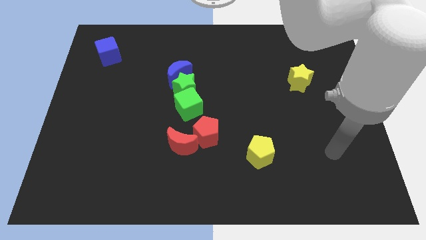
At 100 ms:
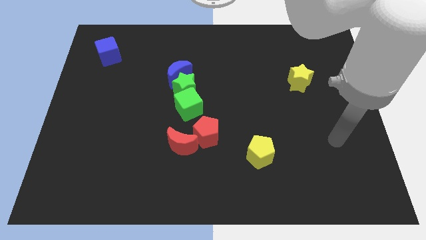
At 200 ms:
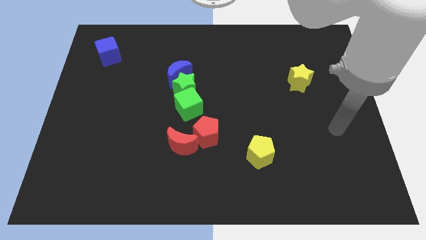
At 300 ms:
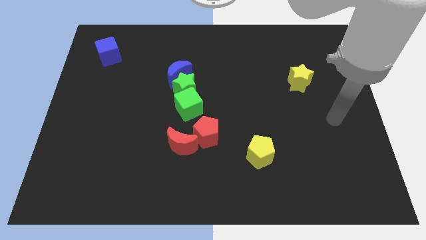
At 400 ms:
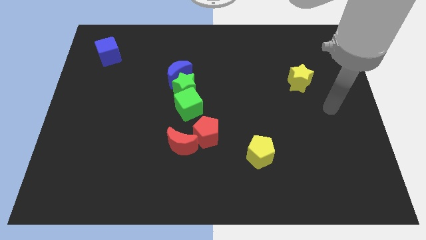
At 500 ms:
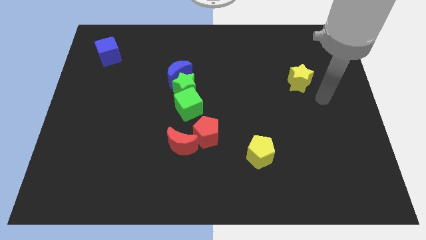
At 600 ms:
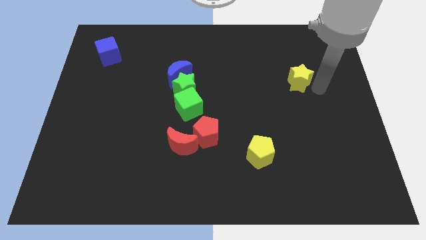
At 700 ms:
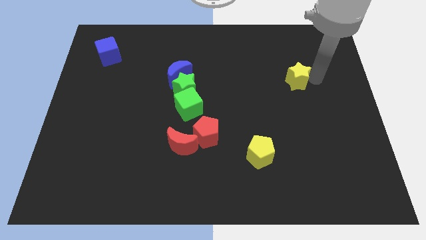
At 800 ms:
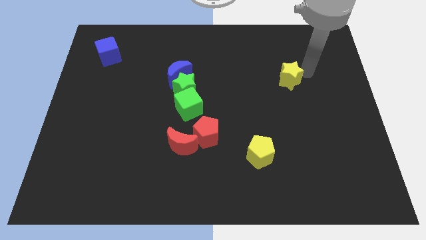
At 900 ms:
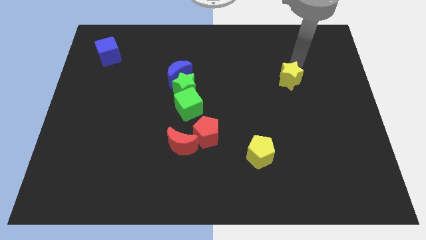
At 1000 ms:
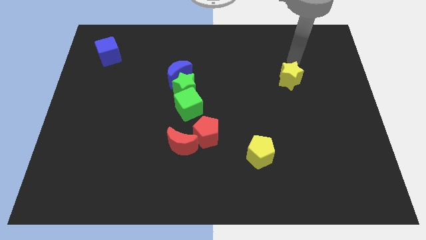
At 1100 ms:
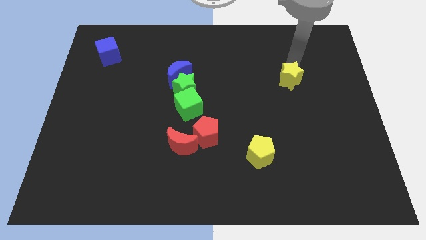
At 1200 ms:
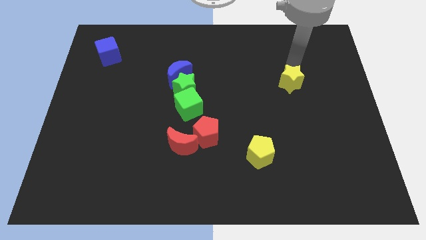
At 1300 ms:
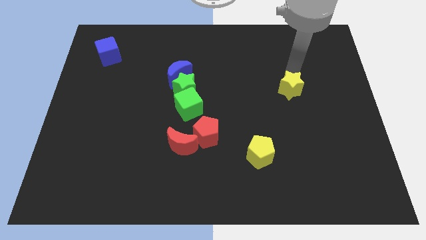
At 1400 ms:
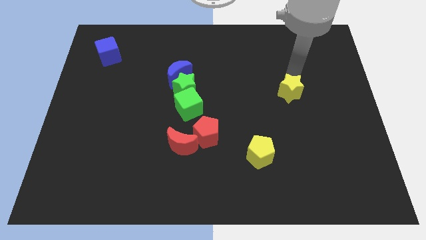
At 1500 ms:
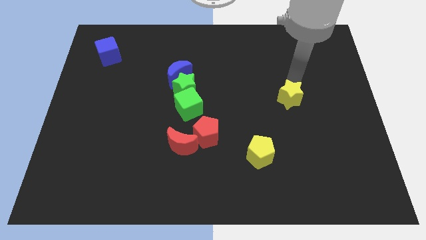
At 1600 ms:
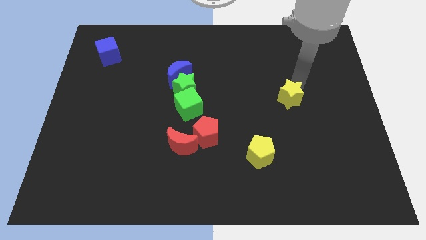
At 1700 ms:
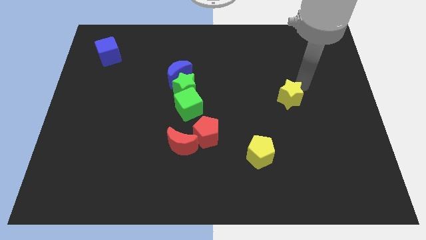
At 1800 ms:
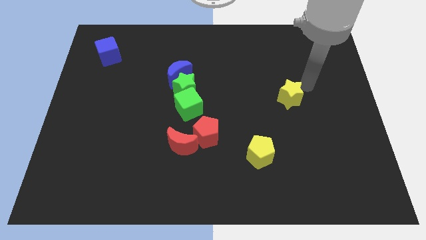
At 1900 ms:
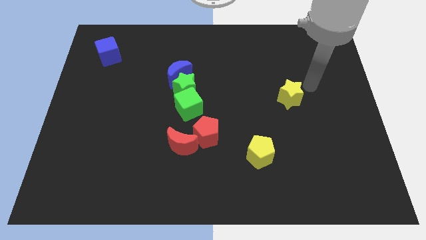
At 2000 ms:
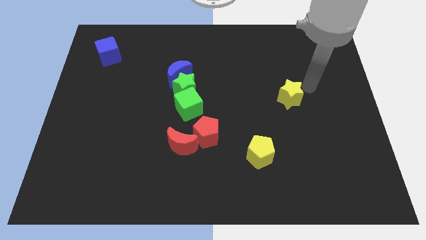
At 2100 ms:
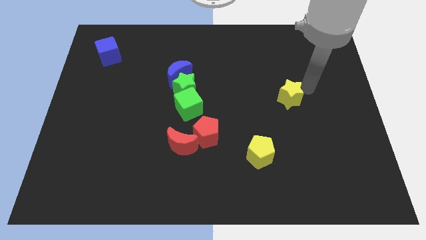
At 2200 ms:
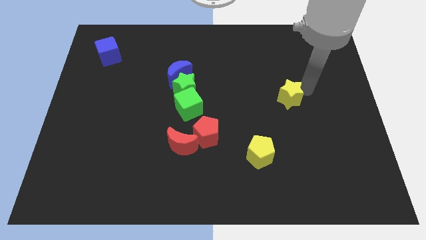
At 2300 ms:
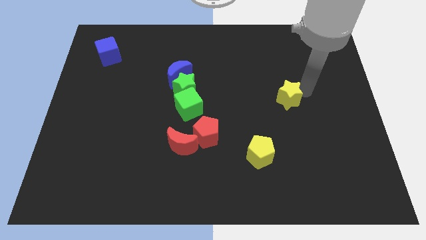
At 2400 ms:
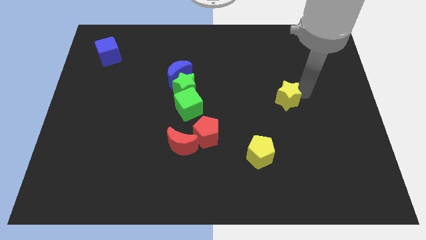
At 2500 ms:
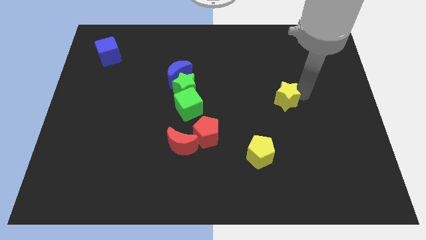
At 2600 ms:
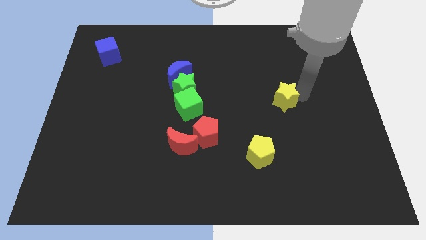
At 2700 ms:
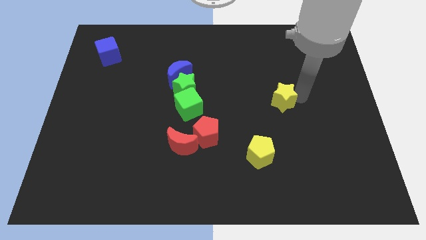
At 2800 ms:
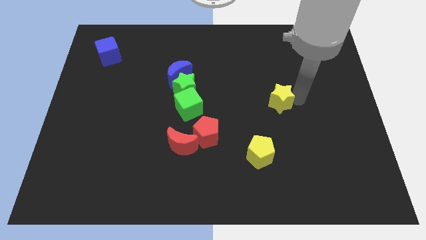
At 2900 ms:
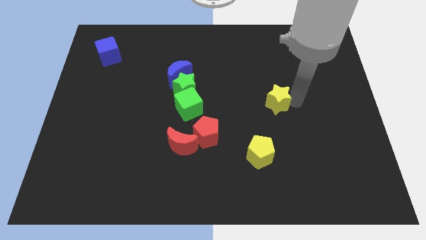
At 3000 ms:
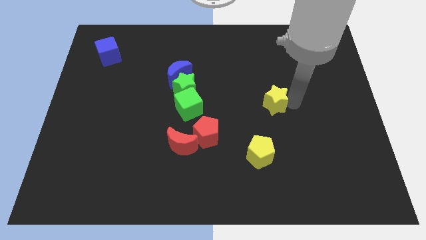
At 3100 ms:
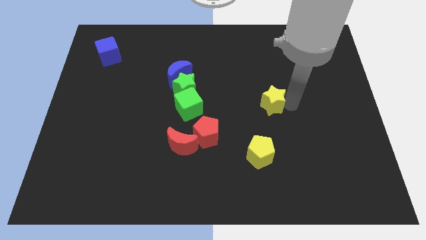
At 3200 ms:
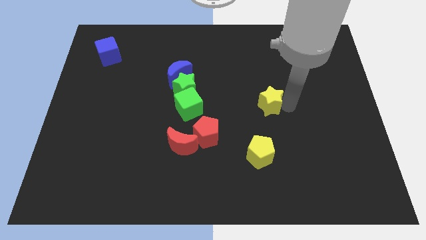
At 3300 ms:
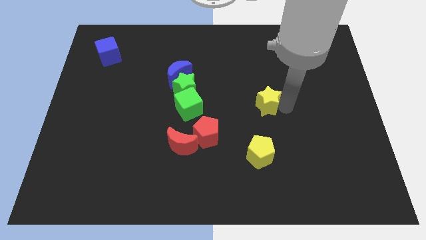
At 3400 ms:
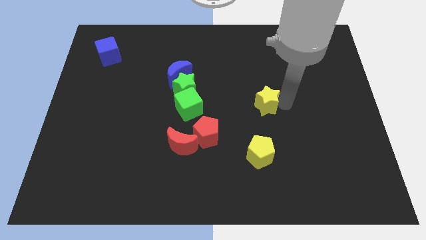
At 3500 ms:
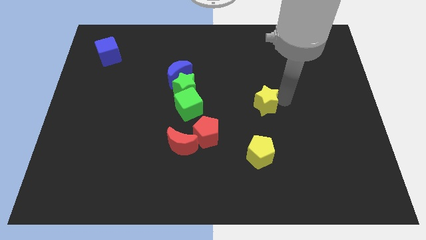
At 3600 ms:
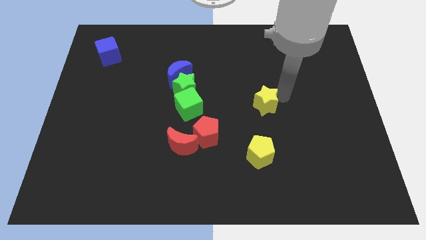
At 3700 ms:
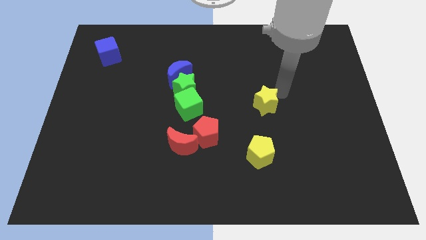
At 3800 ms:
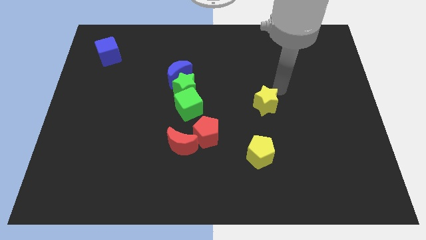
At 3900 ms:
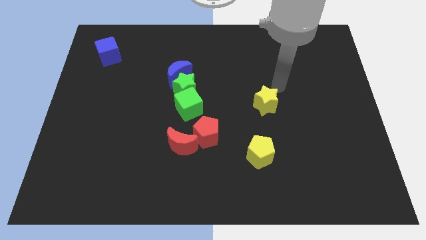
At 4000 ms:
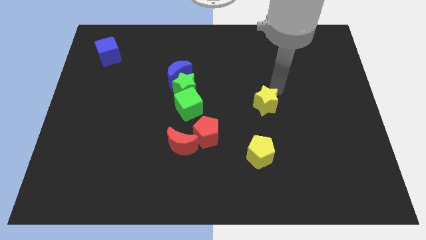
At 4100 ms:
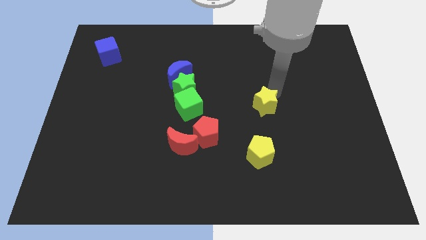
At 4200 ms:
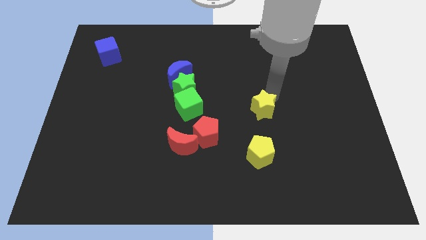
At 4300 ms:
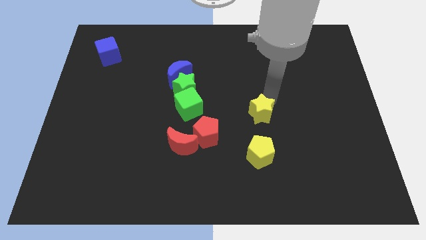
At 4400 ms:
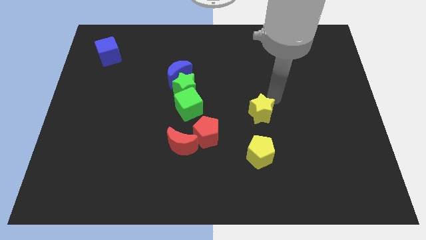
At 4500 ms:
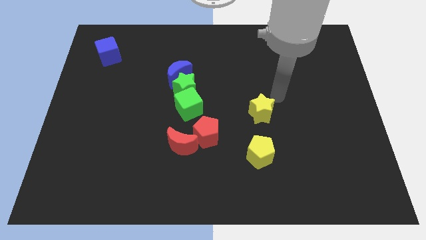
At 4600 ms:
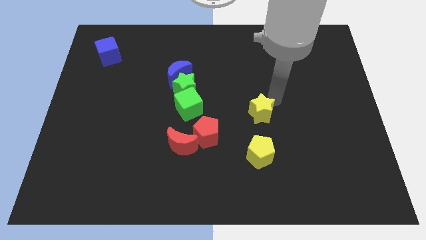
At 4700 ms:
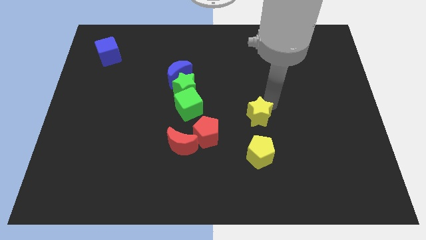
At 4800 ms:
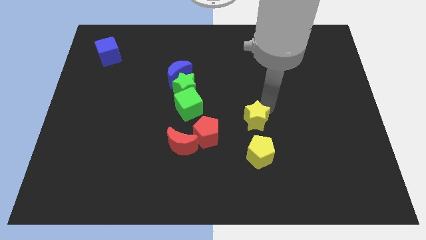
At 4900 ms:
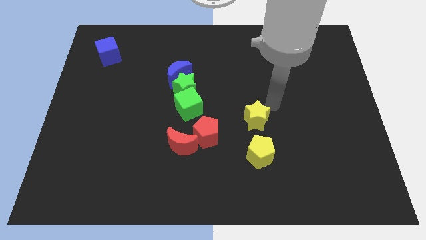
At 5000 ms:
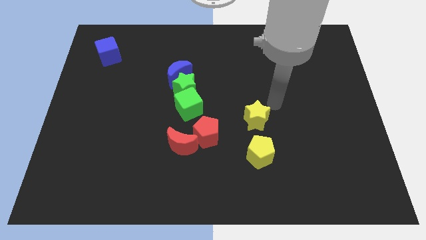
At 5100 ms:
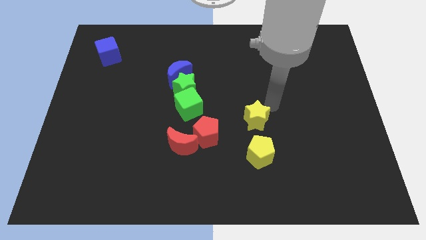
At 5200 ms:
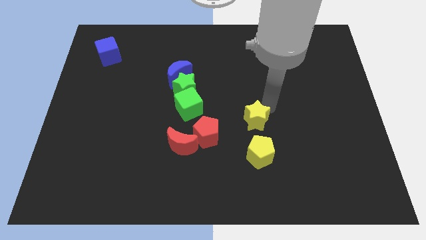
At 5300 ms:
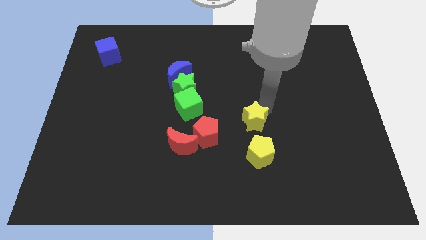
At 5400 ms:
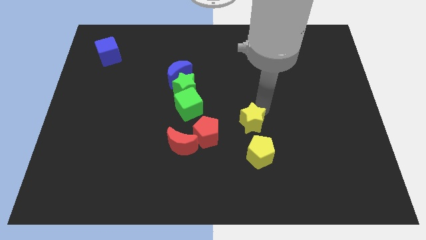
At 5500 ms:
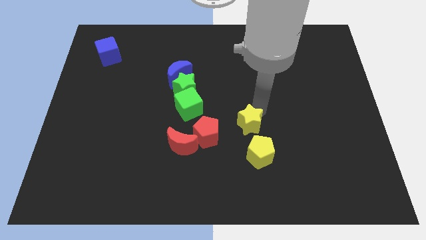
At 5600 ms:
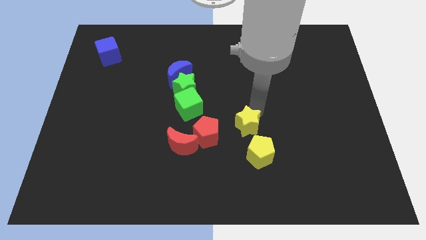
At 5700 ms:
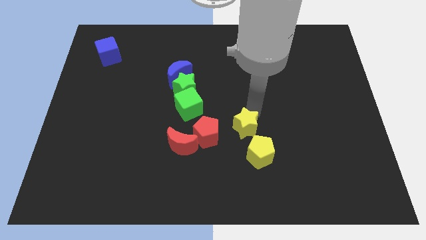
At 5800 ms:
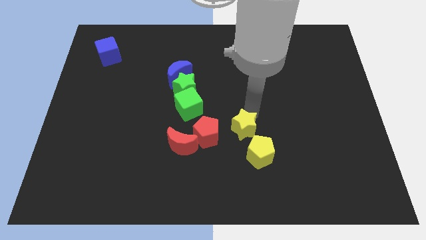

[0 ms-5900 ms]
push the yellow star diagonally downwards and left

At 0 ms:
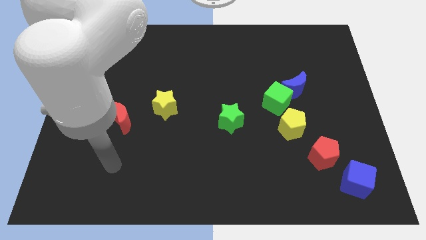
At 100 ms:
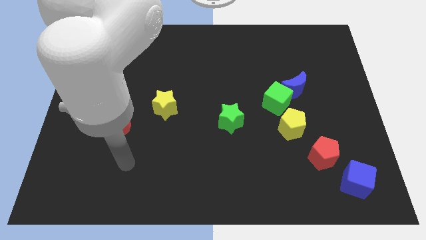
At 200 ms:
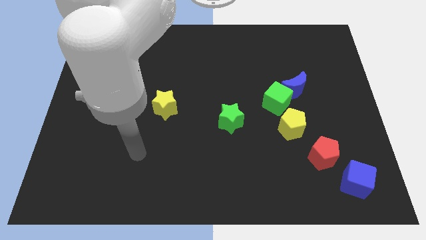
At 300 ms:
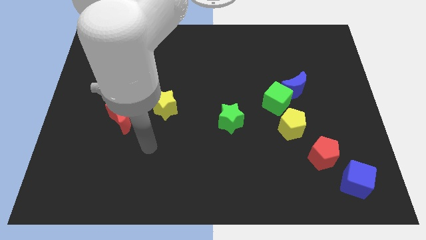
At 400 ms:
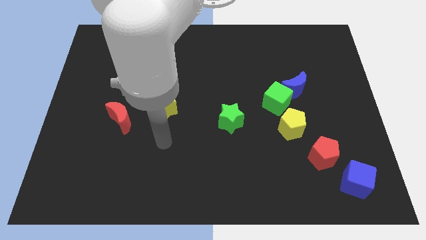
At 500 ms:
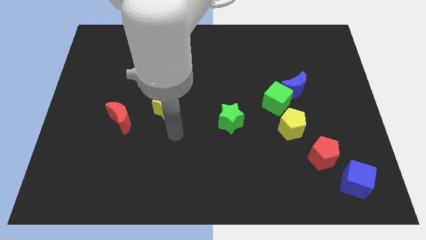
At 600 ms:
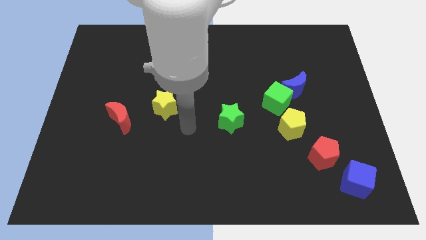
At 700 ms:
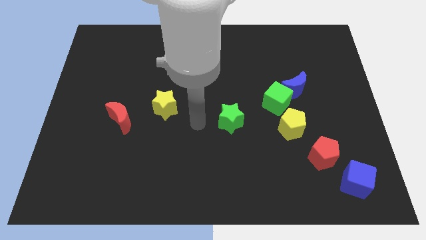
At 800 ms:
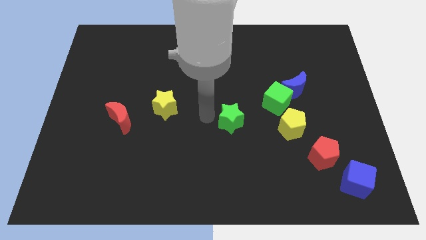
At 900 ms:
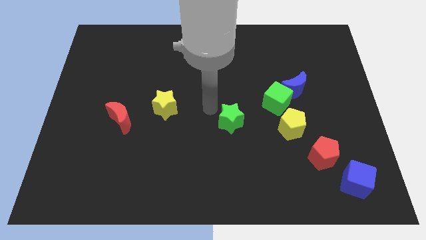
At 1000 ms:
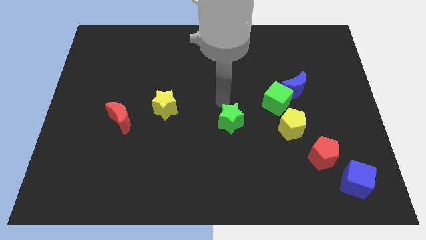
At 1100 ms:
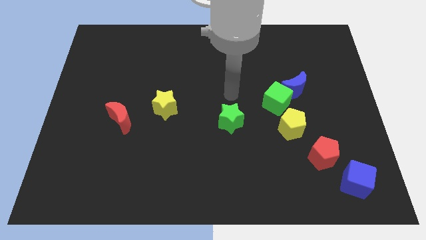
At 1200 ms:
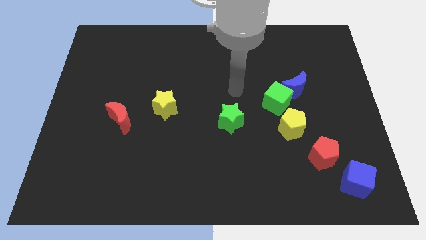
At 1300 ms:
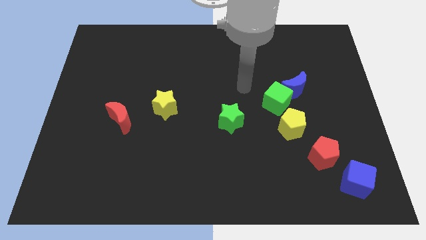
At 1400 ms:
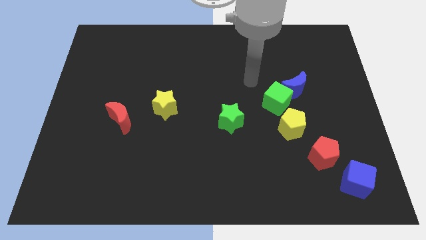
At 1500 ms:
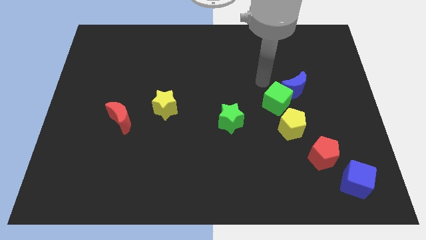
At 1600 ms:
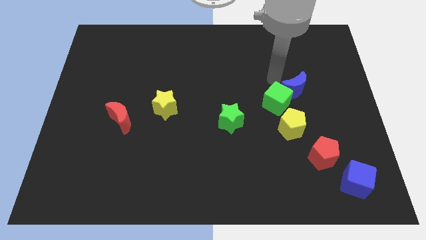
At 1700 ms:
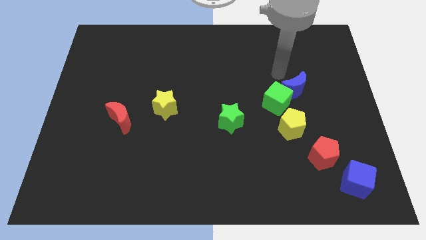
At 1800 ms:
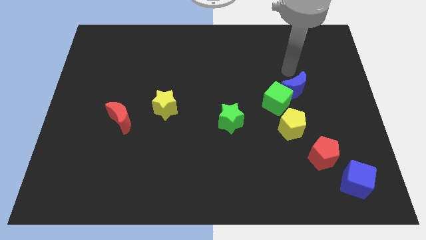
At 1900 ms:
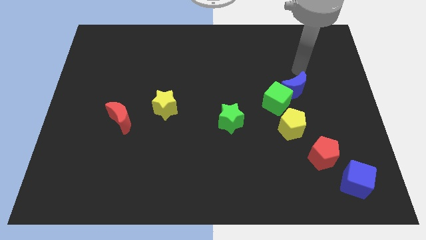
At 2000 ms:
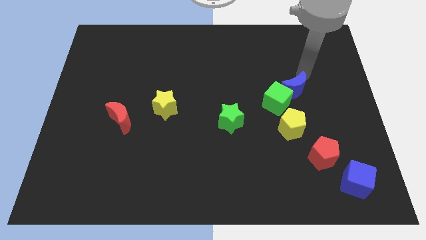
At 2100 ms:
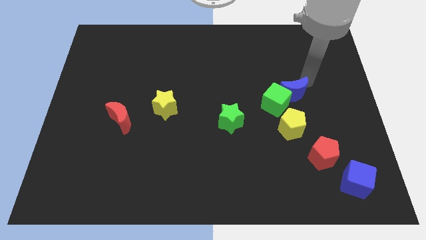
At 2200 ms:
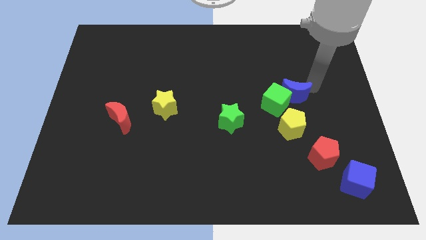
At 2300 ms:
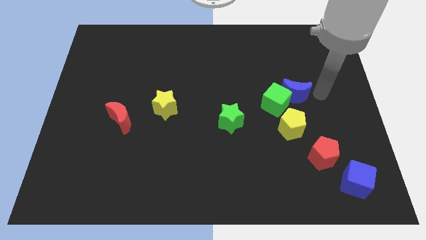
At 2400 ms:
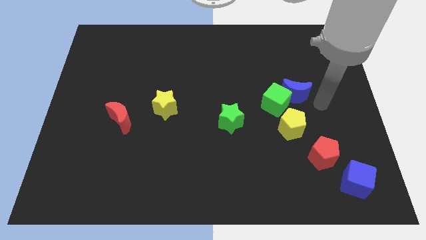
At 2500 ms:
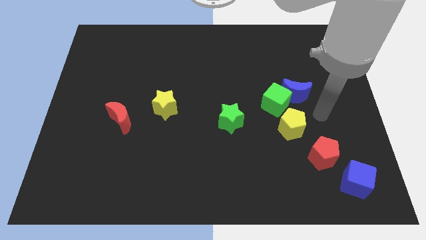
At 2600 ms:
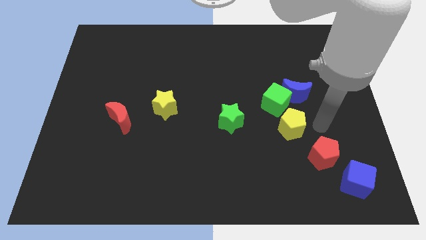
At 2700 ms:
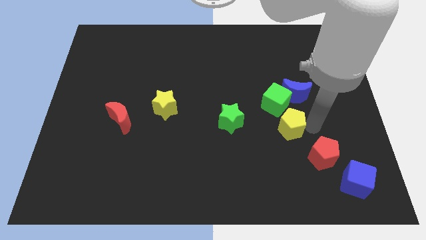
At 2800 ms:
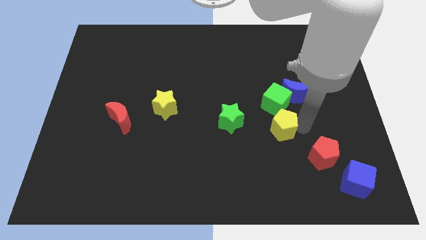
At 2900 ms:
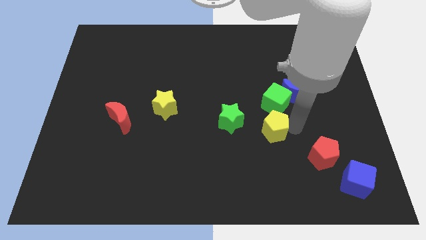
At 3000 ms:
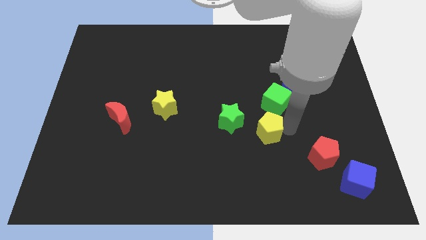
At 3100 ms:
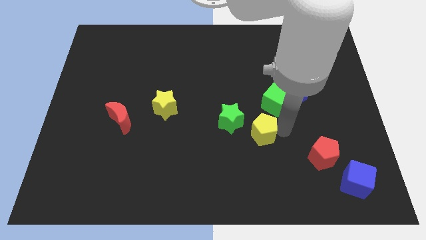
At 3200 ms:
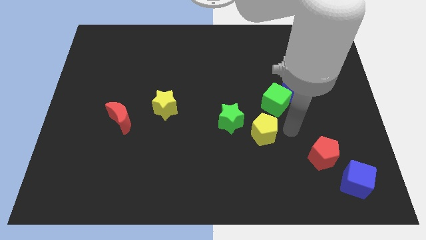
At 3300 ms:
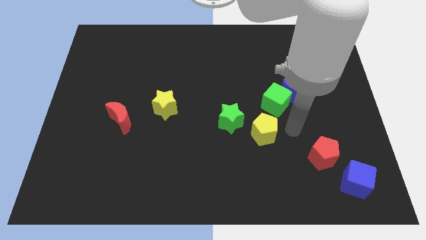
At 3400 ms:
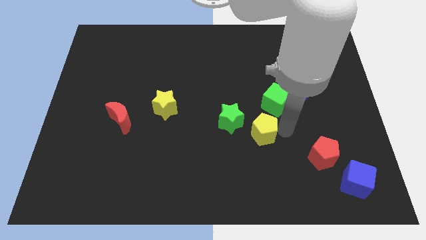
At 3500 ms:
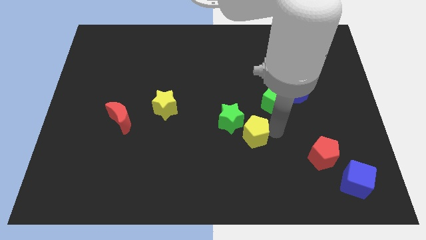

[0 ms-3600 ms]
slightly move the yellow pentagon to the left
